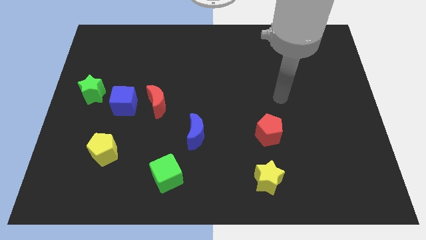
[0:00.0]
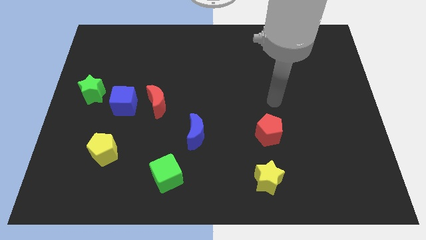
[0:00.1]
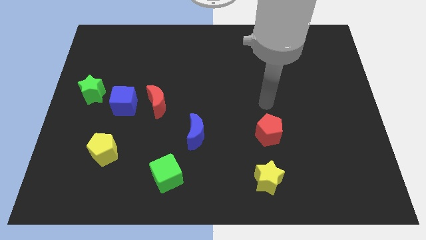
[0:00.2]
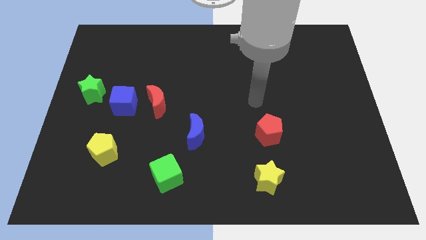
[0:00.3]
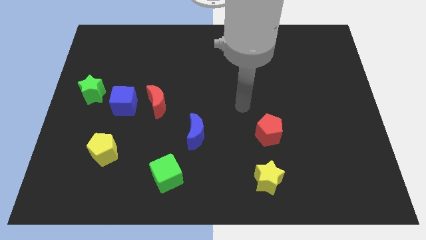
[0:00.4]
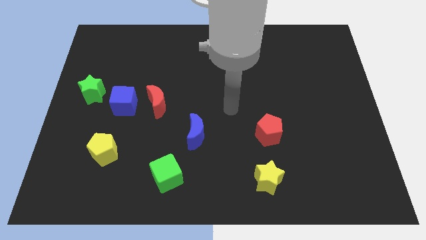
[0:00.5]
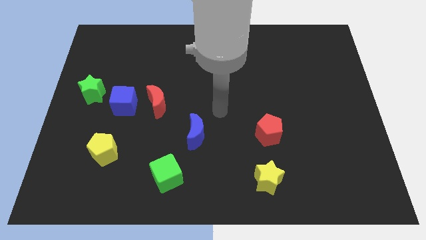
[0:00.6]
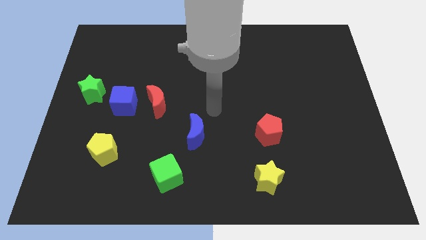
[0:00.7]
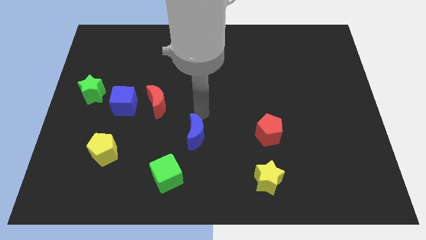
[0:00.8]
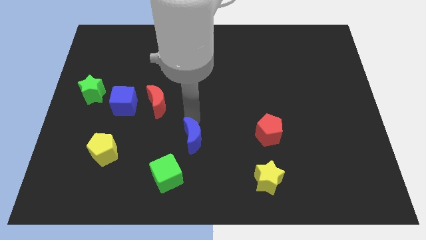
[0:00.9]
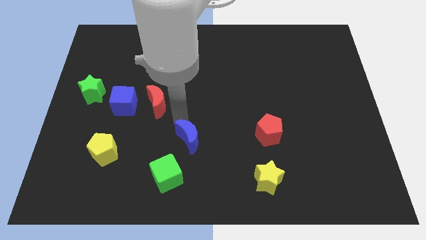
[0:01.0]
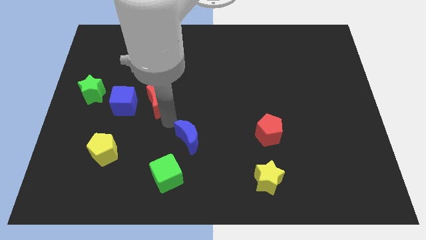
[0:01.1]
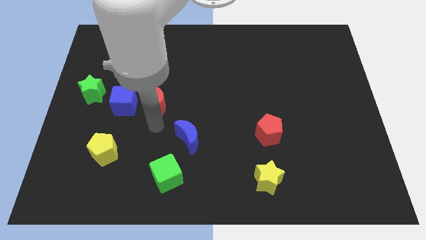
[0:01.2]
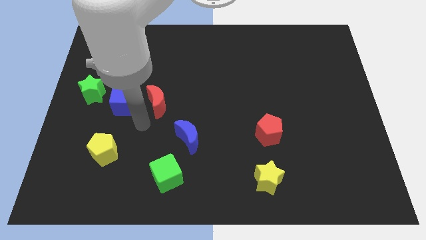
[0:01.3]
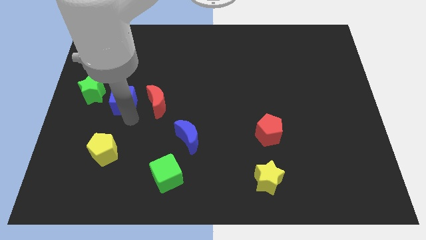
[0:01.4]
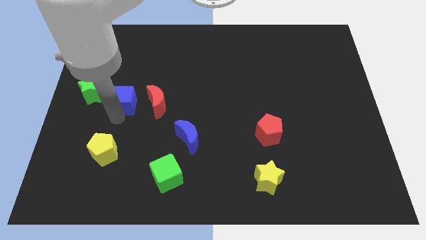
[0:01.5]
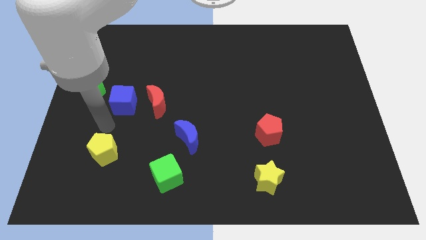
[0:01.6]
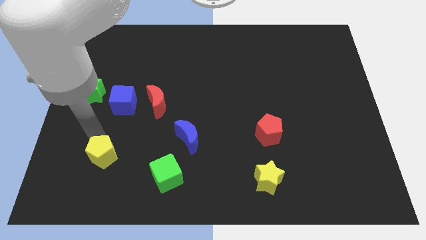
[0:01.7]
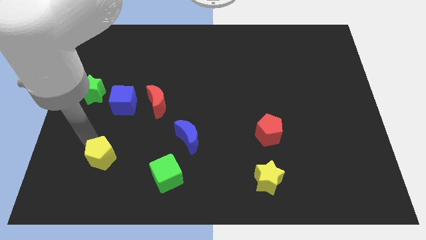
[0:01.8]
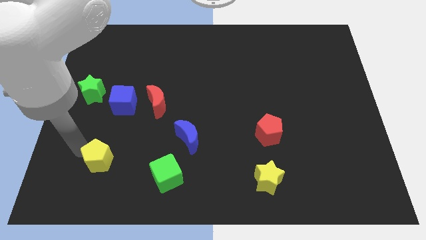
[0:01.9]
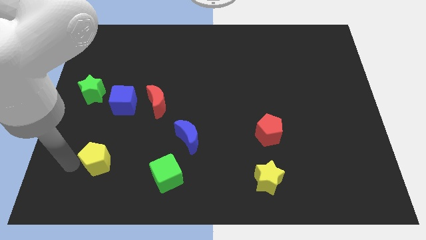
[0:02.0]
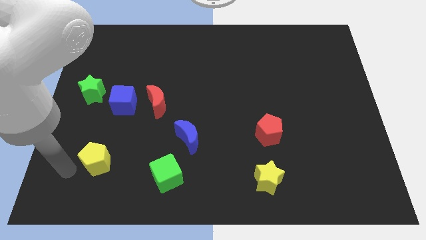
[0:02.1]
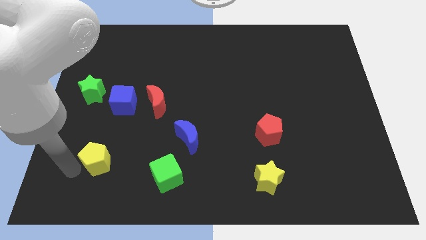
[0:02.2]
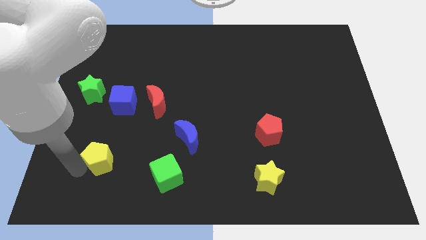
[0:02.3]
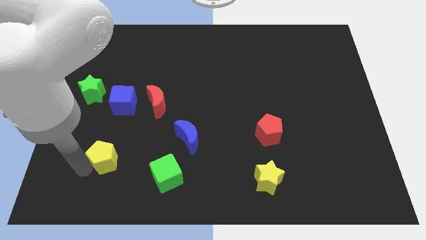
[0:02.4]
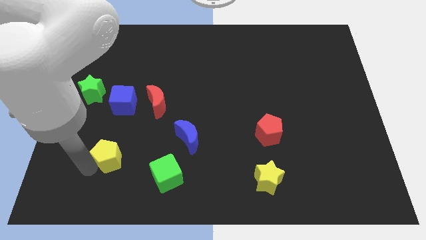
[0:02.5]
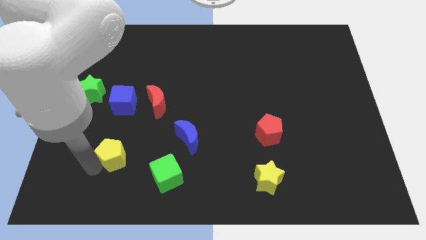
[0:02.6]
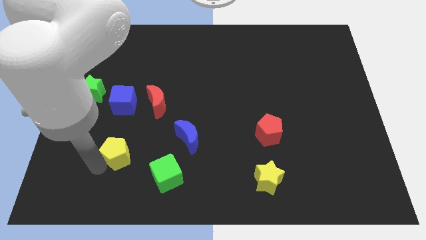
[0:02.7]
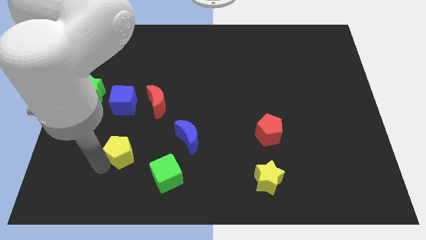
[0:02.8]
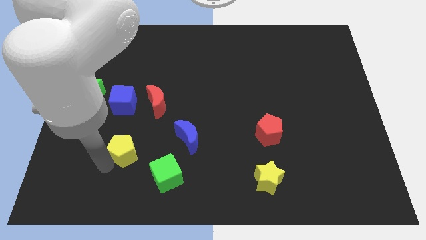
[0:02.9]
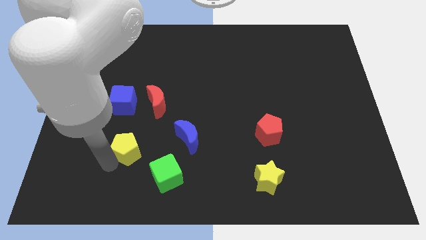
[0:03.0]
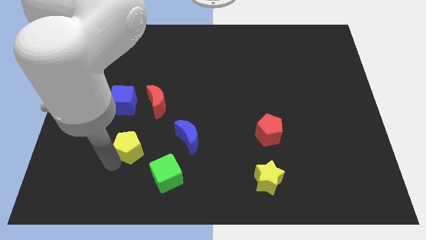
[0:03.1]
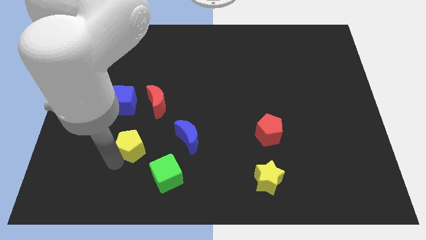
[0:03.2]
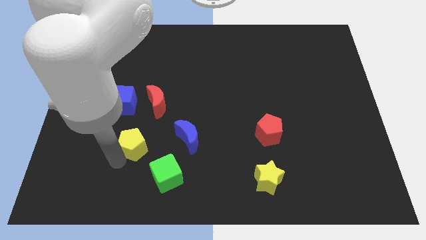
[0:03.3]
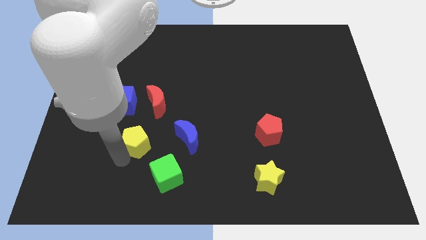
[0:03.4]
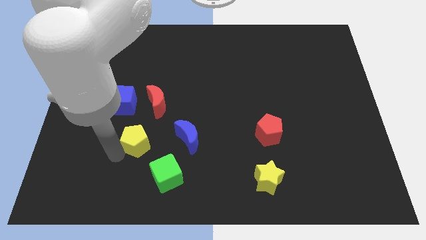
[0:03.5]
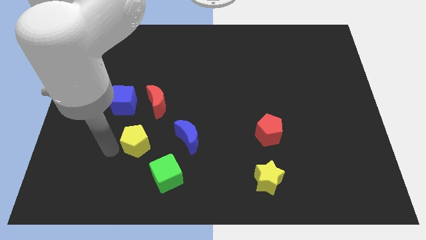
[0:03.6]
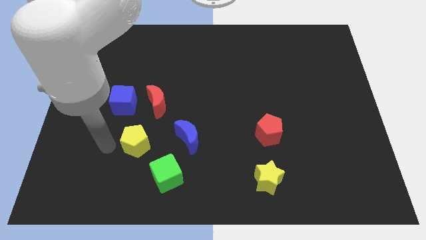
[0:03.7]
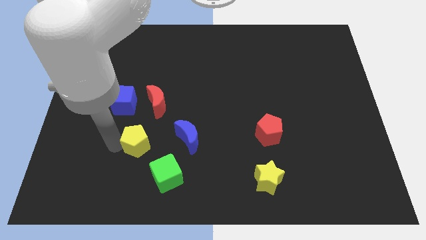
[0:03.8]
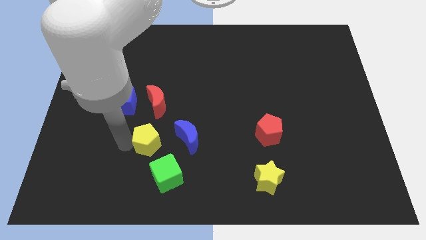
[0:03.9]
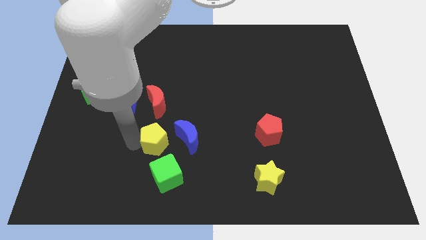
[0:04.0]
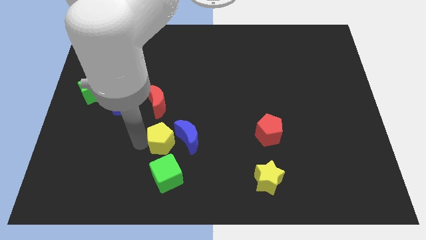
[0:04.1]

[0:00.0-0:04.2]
move the yellow pentagon next to the blue moon

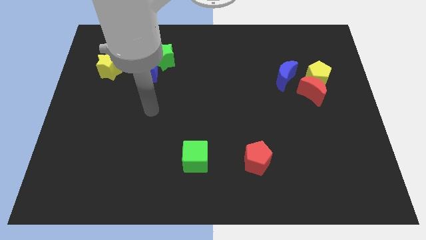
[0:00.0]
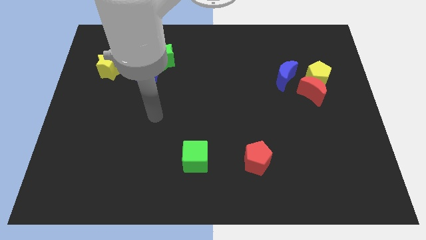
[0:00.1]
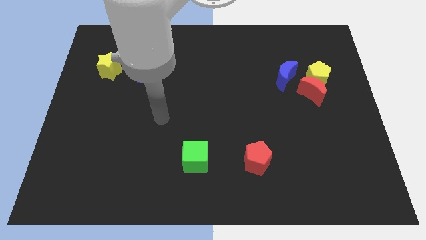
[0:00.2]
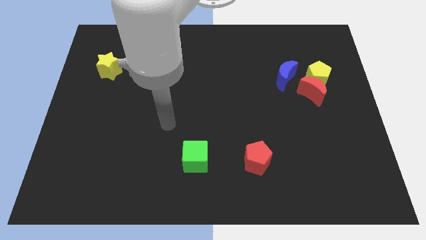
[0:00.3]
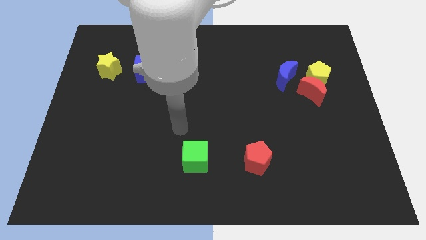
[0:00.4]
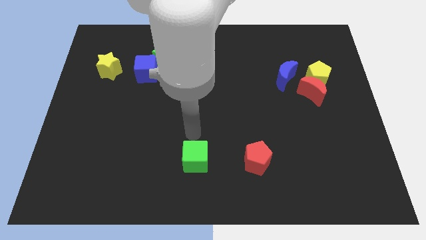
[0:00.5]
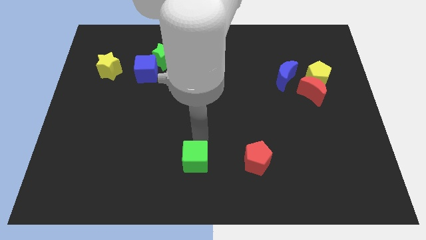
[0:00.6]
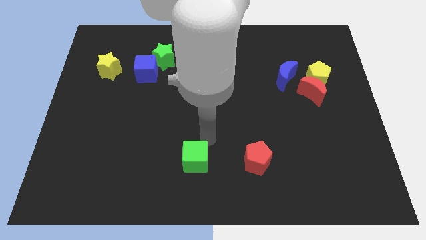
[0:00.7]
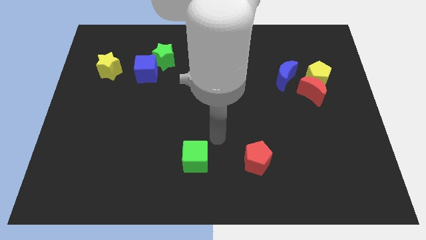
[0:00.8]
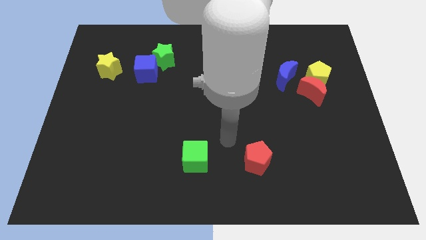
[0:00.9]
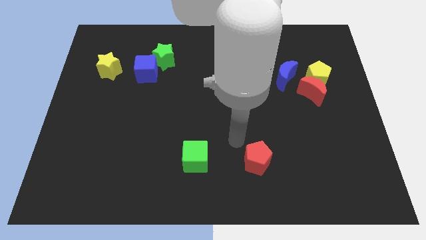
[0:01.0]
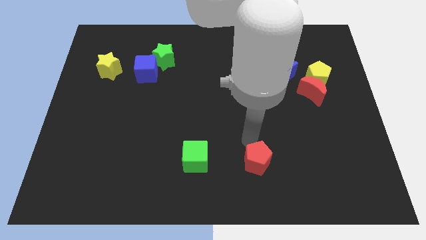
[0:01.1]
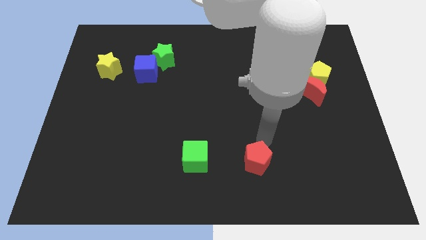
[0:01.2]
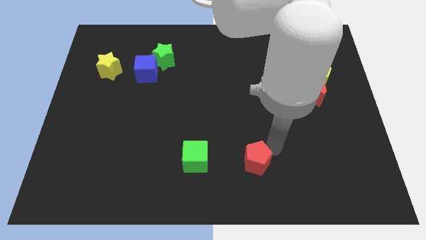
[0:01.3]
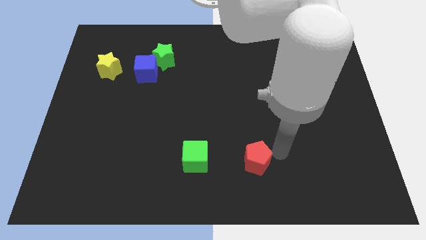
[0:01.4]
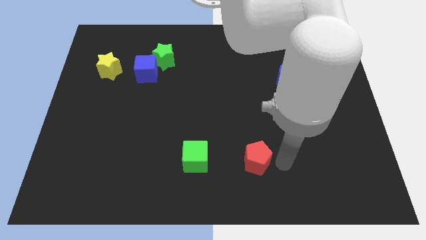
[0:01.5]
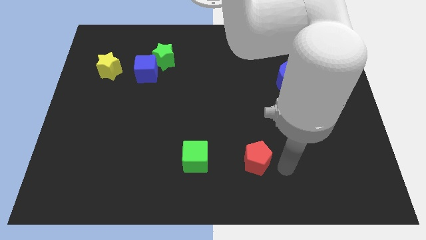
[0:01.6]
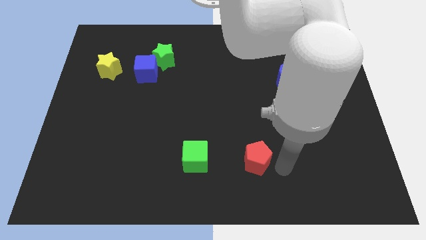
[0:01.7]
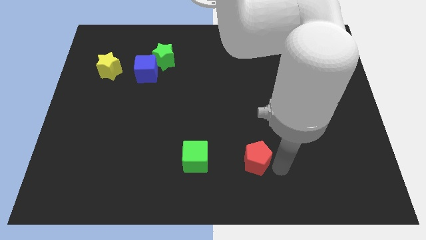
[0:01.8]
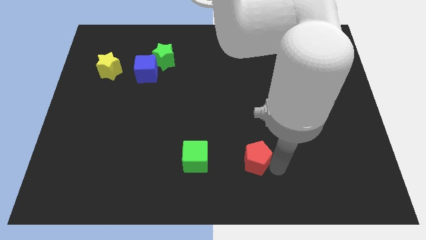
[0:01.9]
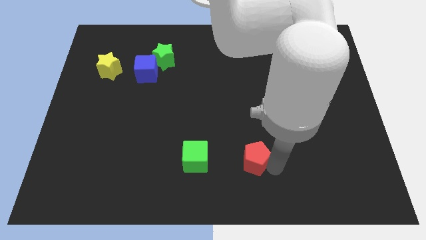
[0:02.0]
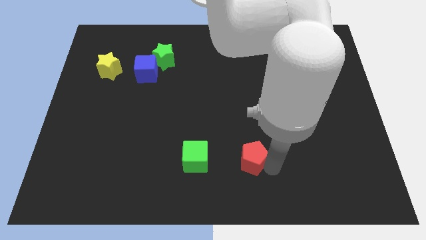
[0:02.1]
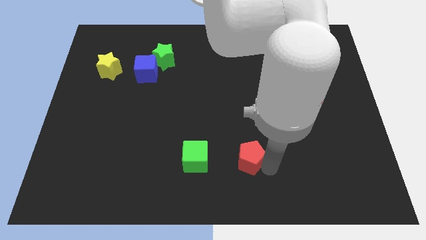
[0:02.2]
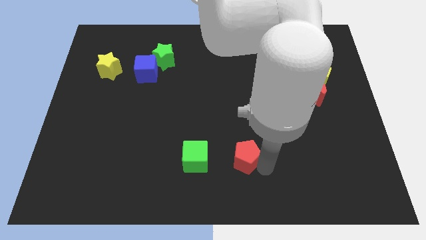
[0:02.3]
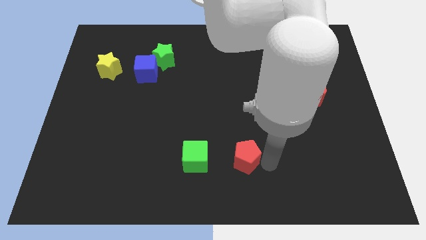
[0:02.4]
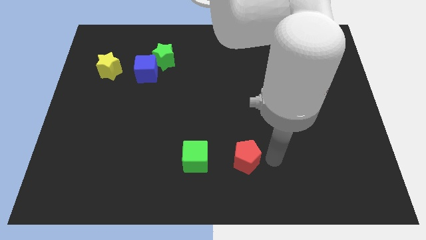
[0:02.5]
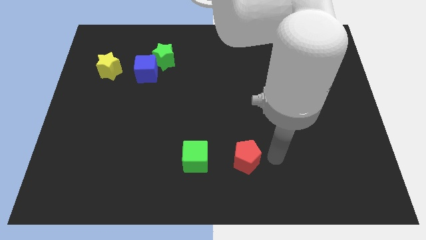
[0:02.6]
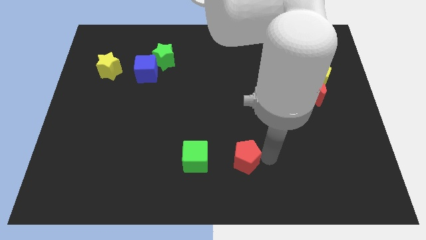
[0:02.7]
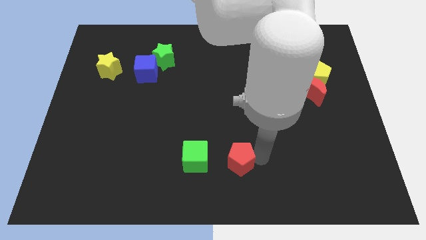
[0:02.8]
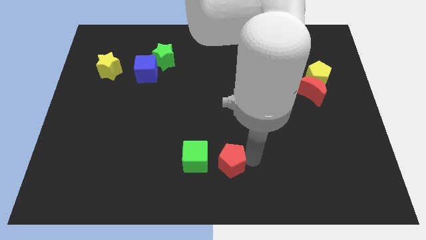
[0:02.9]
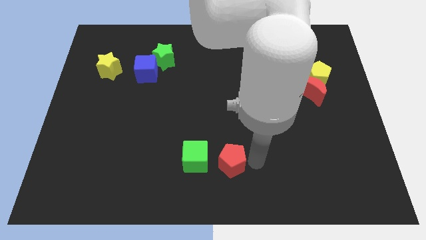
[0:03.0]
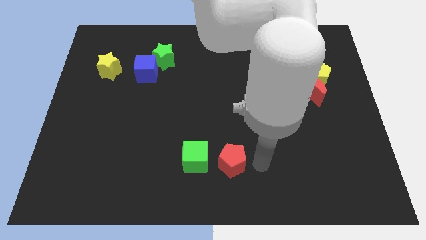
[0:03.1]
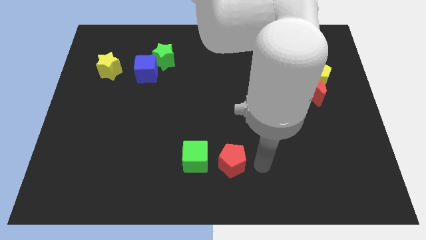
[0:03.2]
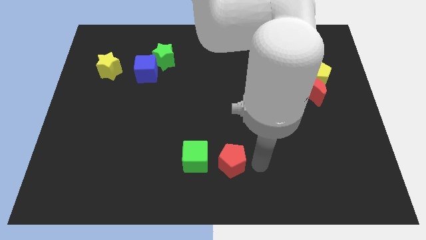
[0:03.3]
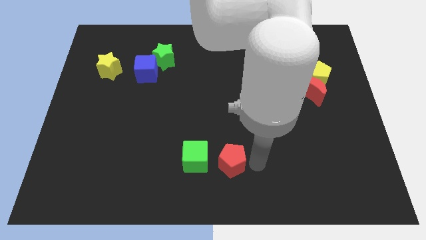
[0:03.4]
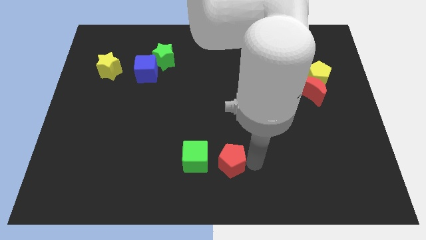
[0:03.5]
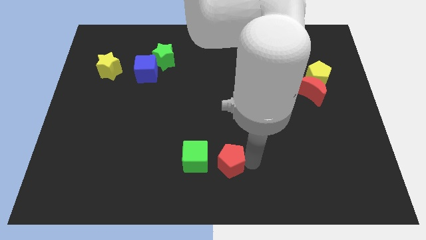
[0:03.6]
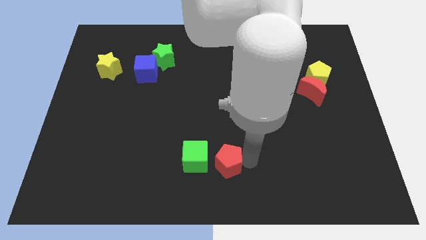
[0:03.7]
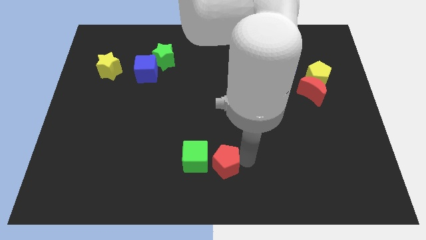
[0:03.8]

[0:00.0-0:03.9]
move the red pentagon to the green cube

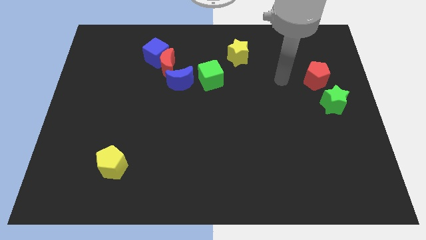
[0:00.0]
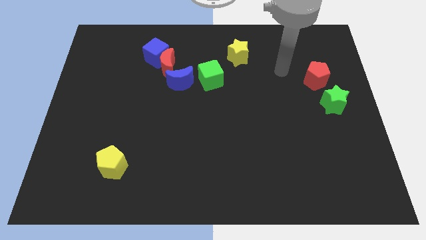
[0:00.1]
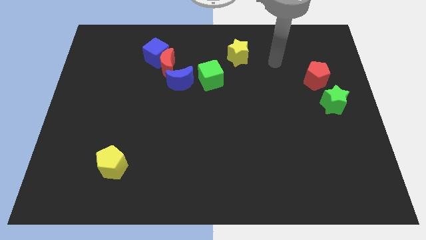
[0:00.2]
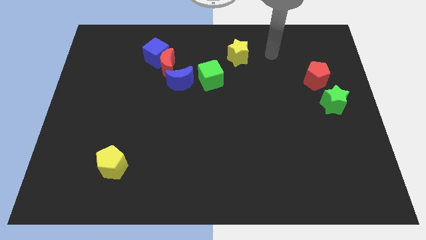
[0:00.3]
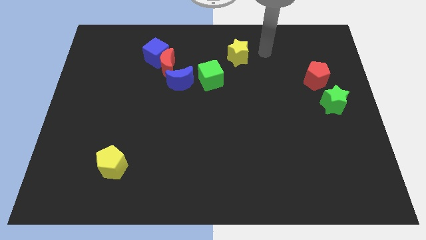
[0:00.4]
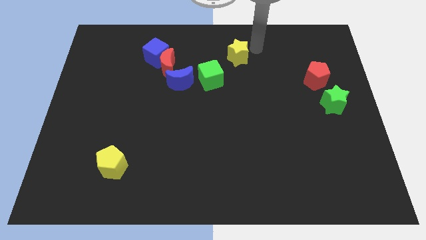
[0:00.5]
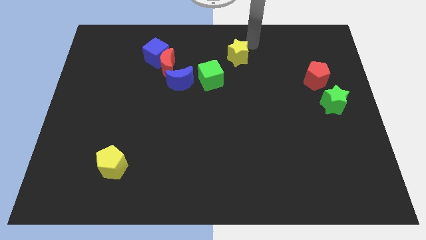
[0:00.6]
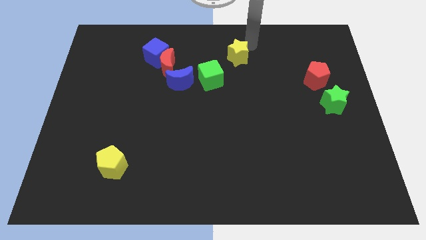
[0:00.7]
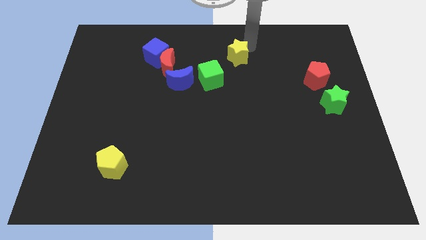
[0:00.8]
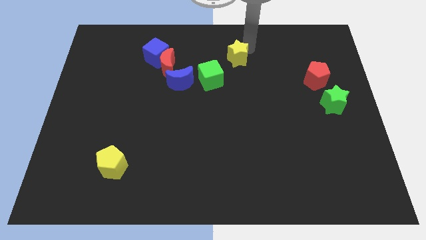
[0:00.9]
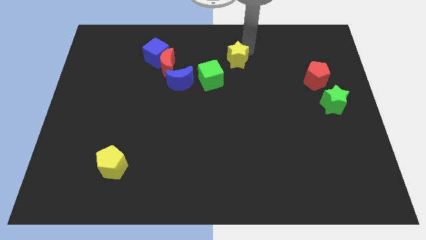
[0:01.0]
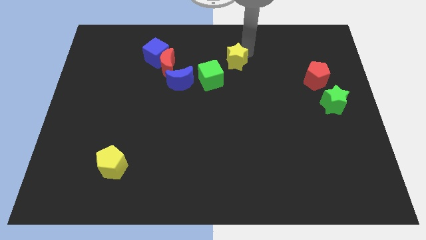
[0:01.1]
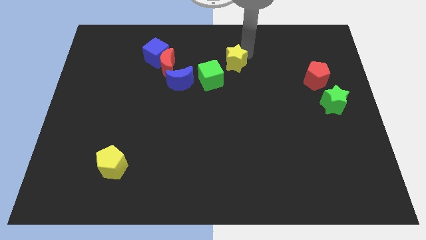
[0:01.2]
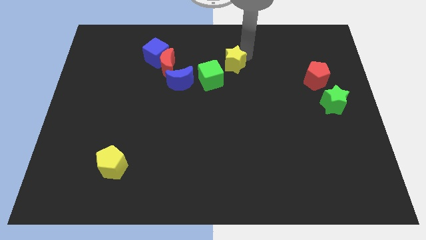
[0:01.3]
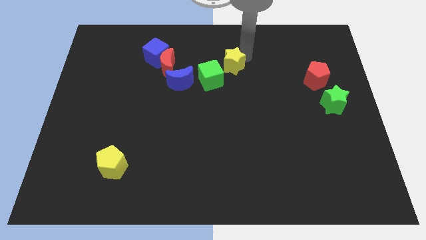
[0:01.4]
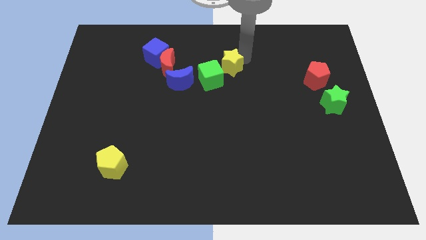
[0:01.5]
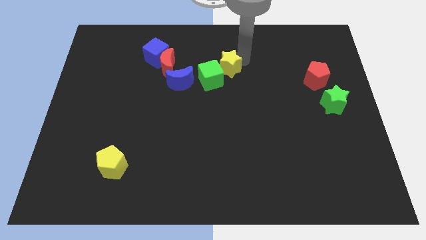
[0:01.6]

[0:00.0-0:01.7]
move the yellow star to the green cube
